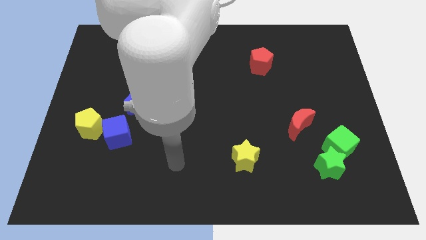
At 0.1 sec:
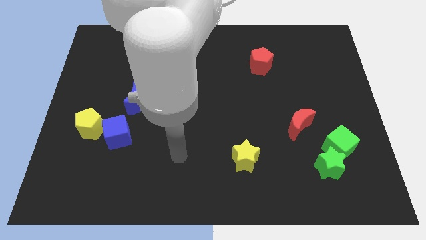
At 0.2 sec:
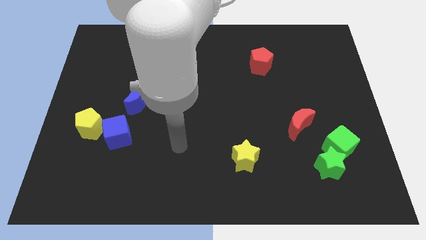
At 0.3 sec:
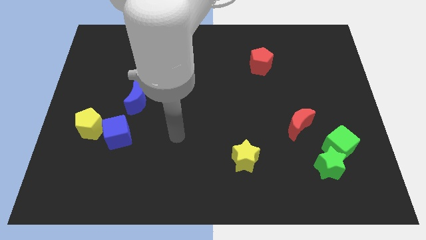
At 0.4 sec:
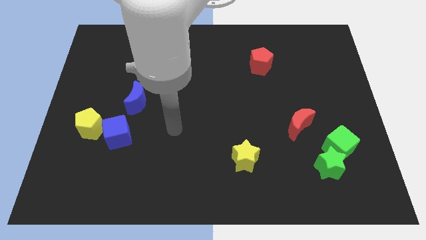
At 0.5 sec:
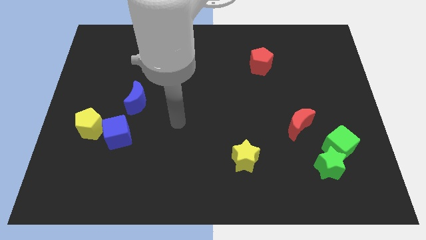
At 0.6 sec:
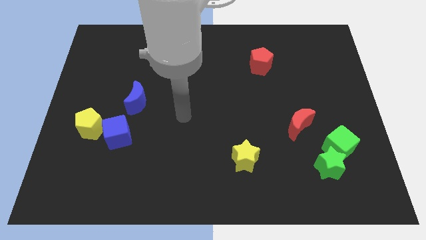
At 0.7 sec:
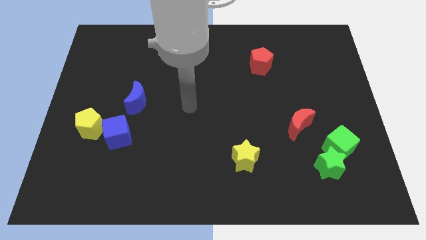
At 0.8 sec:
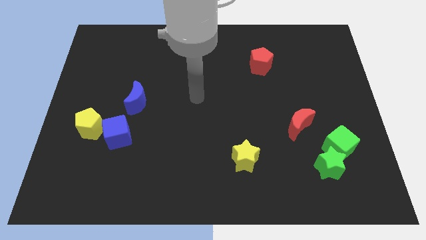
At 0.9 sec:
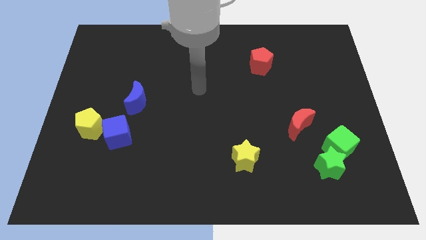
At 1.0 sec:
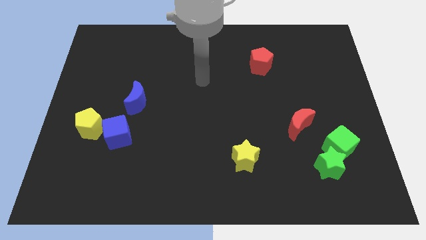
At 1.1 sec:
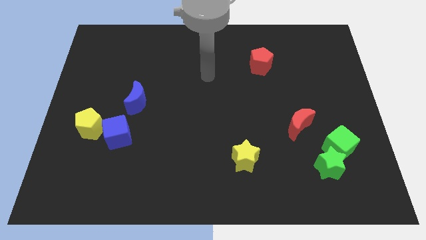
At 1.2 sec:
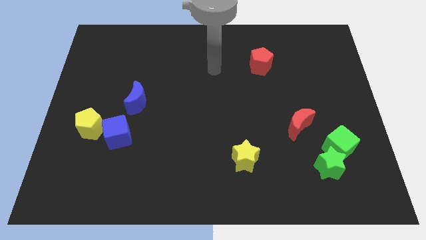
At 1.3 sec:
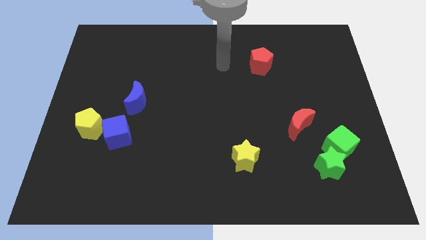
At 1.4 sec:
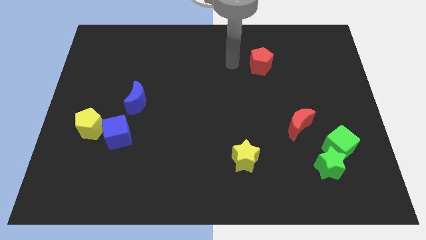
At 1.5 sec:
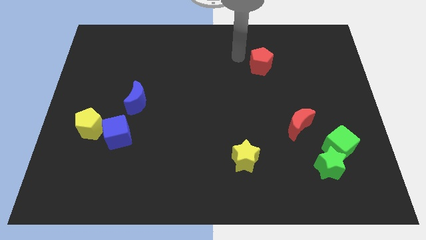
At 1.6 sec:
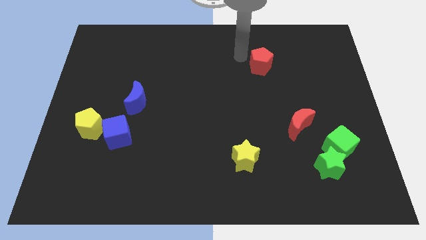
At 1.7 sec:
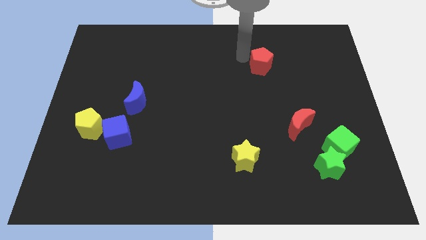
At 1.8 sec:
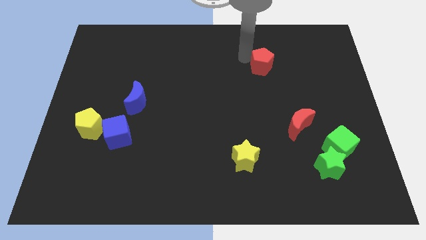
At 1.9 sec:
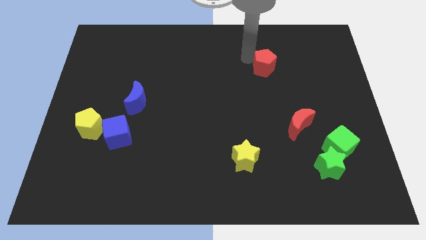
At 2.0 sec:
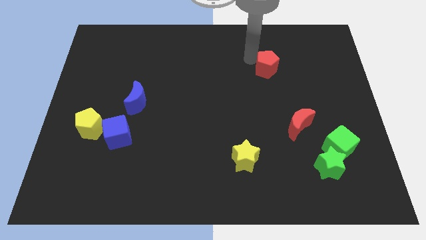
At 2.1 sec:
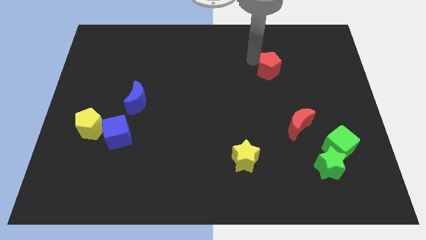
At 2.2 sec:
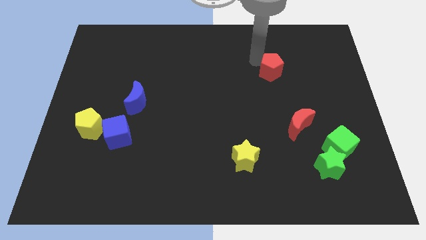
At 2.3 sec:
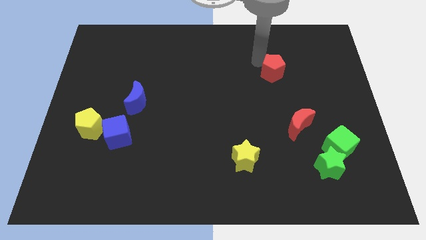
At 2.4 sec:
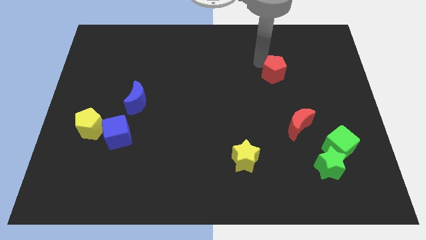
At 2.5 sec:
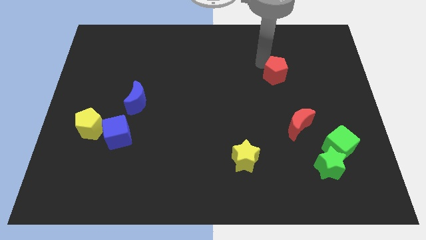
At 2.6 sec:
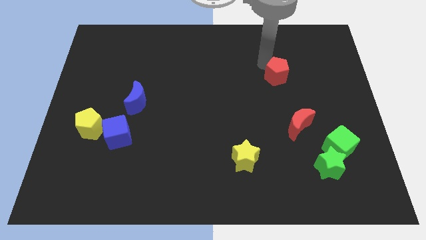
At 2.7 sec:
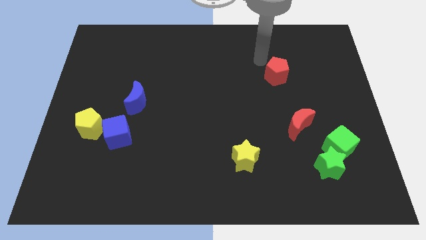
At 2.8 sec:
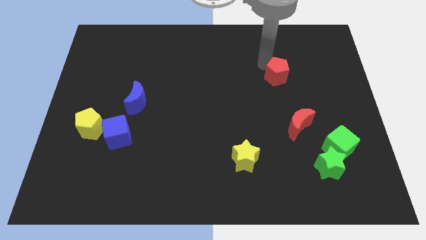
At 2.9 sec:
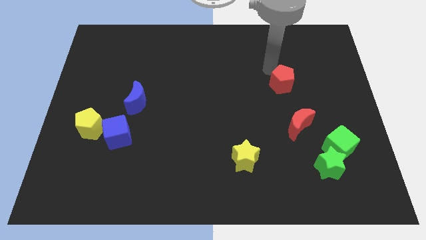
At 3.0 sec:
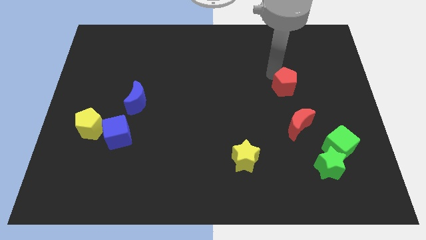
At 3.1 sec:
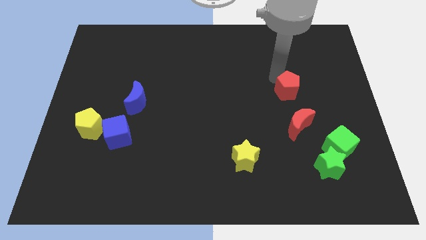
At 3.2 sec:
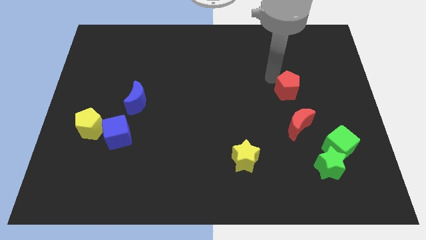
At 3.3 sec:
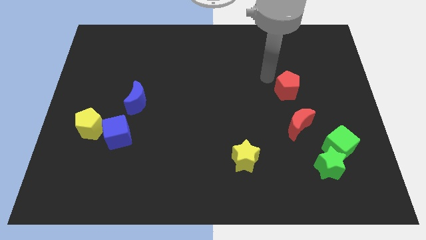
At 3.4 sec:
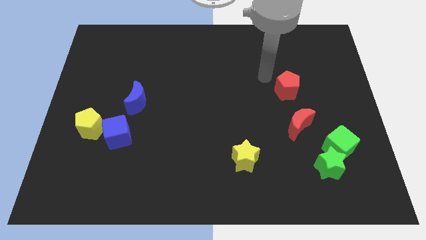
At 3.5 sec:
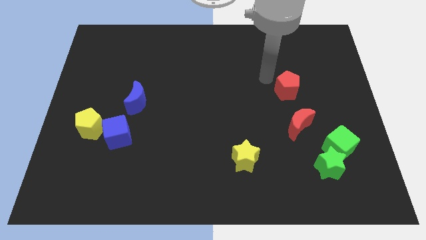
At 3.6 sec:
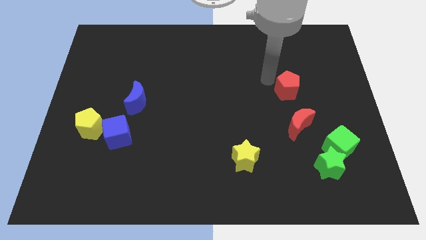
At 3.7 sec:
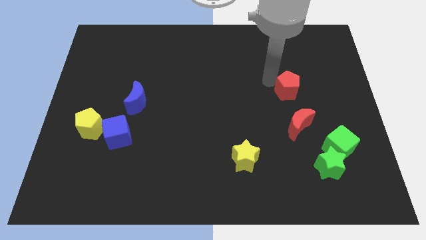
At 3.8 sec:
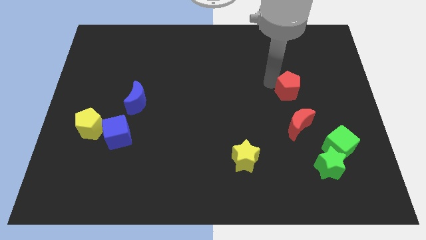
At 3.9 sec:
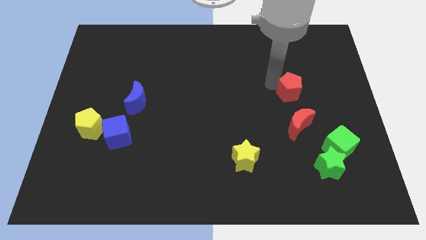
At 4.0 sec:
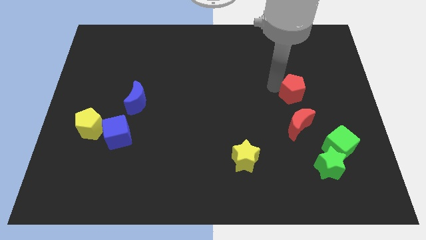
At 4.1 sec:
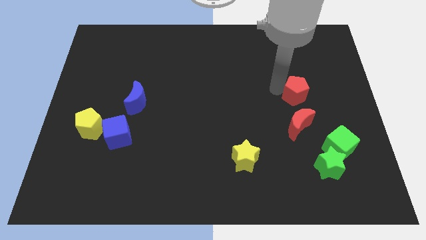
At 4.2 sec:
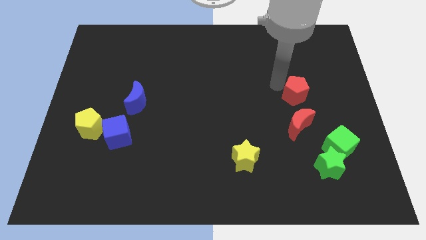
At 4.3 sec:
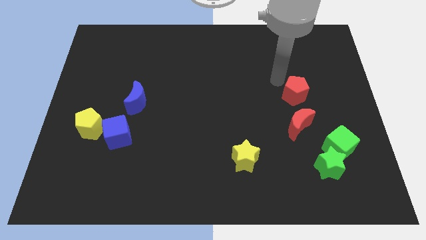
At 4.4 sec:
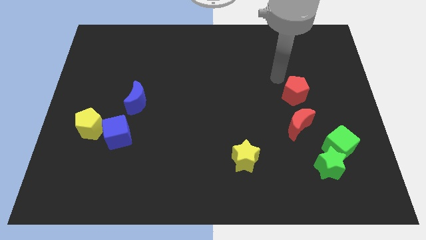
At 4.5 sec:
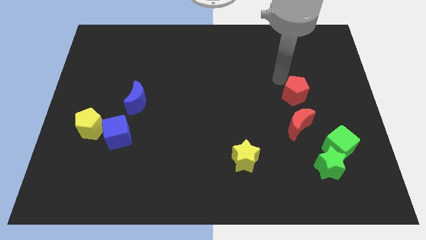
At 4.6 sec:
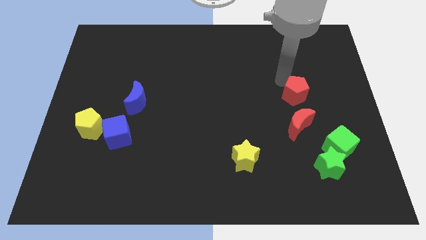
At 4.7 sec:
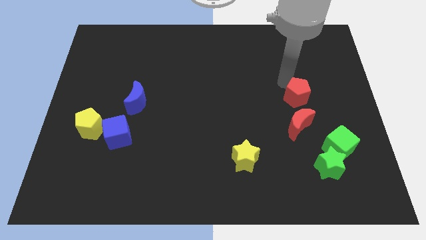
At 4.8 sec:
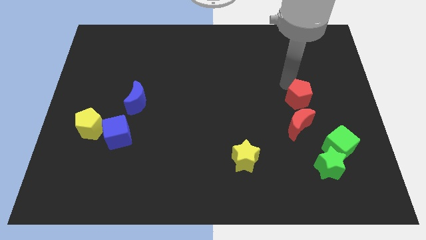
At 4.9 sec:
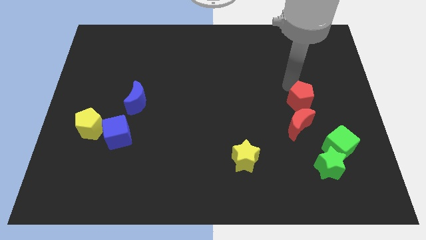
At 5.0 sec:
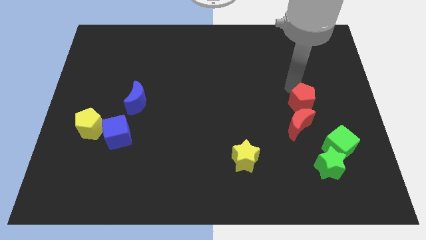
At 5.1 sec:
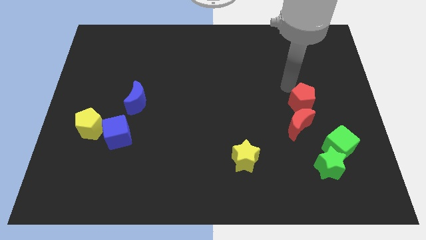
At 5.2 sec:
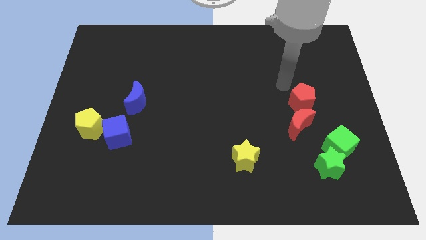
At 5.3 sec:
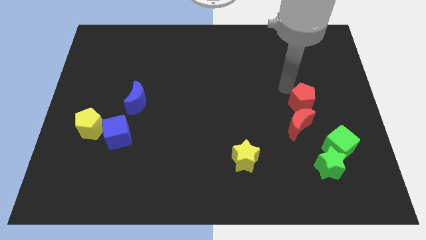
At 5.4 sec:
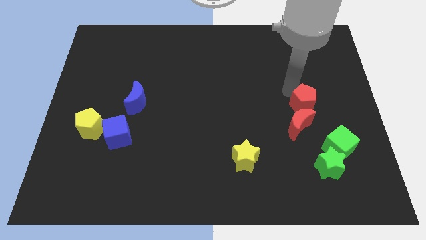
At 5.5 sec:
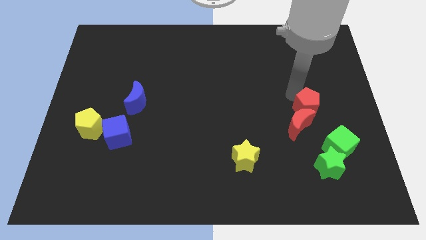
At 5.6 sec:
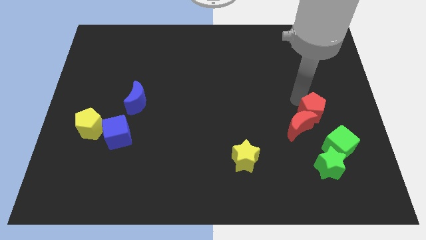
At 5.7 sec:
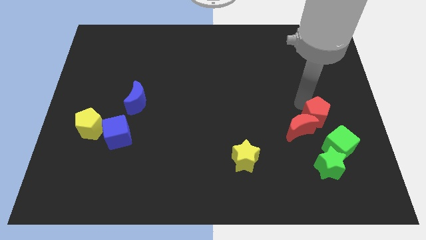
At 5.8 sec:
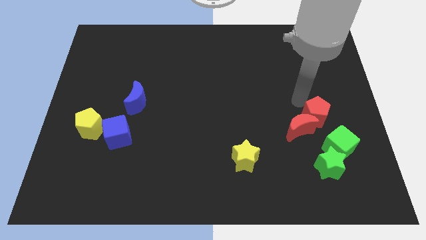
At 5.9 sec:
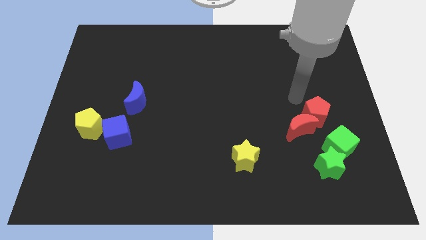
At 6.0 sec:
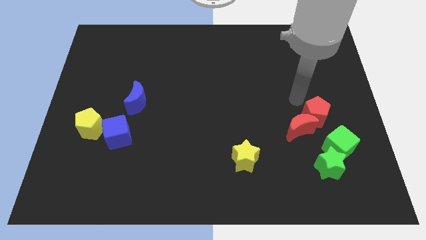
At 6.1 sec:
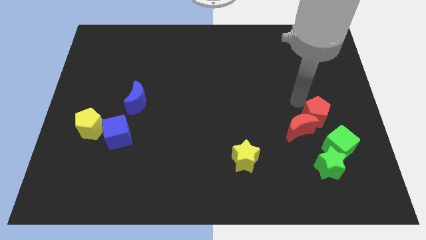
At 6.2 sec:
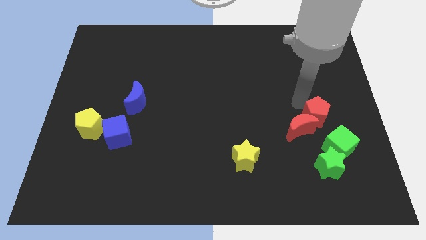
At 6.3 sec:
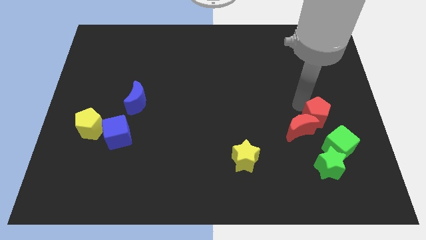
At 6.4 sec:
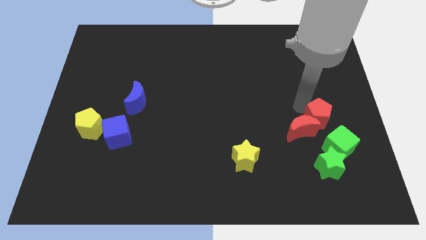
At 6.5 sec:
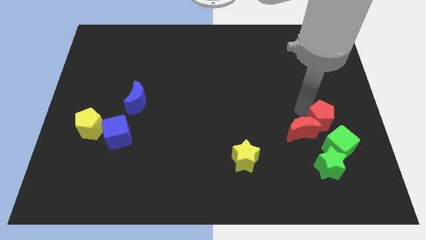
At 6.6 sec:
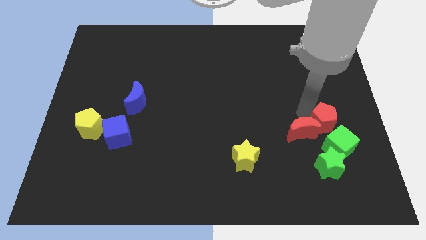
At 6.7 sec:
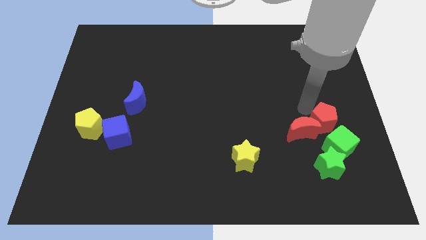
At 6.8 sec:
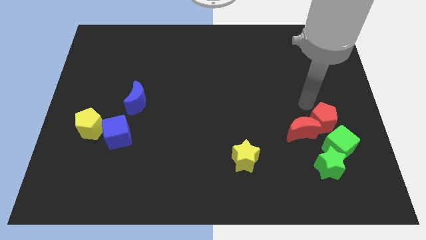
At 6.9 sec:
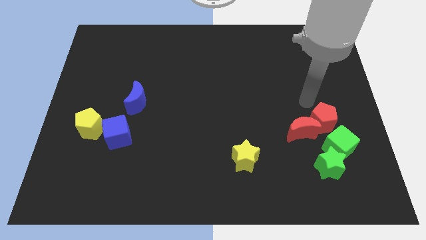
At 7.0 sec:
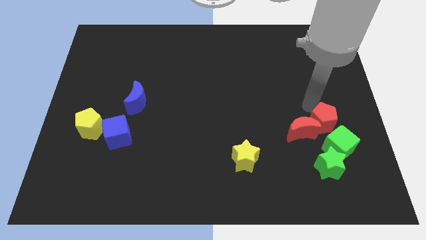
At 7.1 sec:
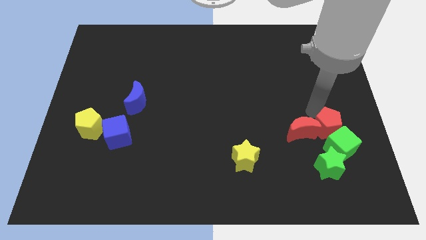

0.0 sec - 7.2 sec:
put the red pentagon to the green cube
